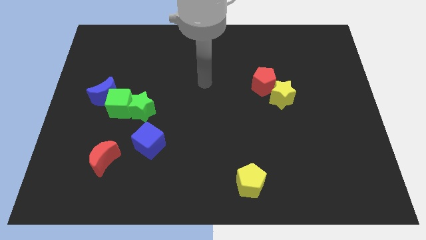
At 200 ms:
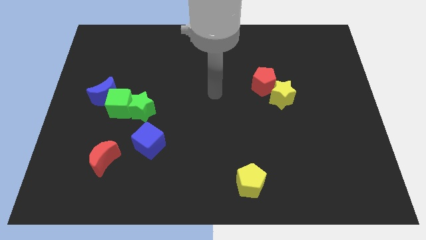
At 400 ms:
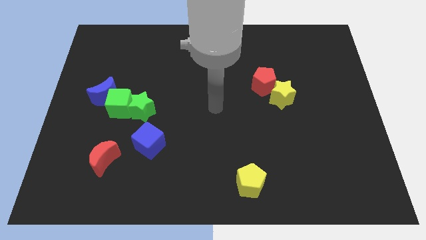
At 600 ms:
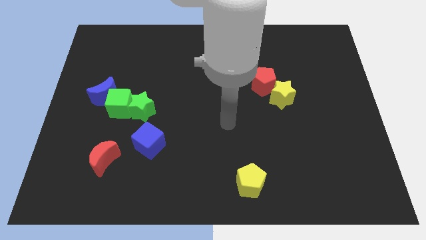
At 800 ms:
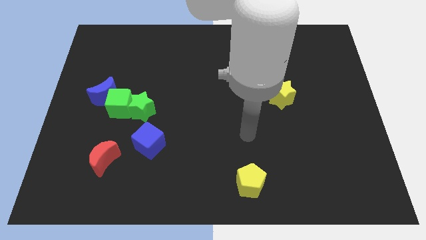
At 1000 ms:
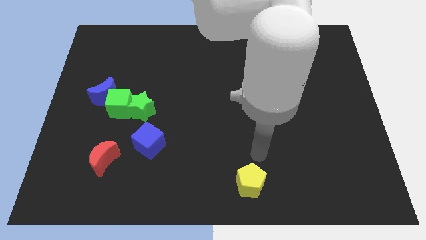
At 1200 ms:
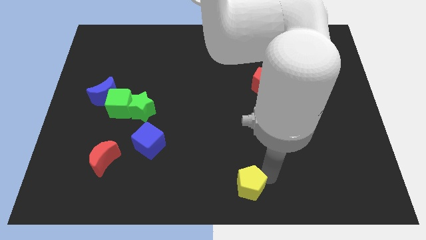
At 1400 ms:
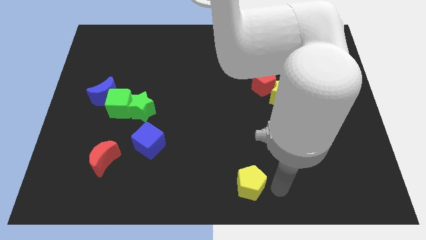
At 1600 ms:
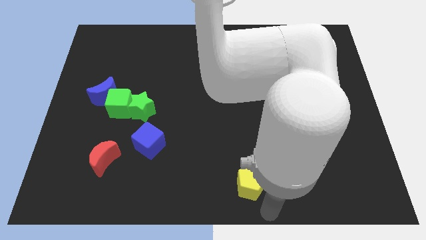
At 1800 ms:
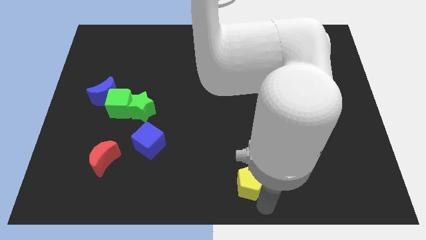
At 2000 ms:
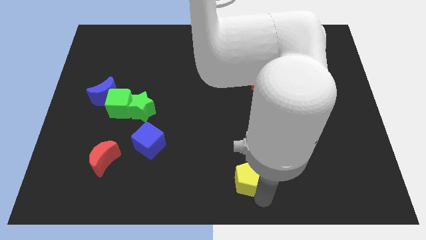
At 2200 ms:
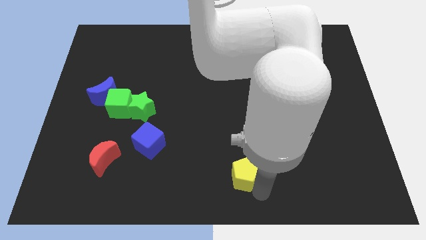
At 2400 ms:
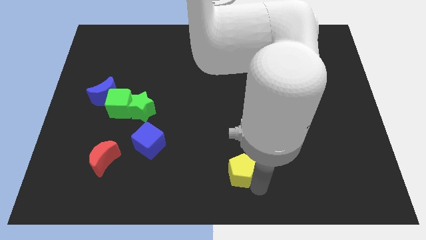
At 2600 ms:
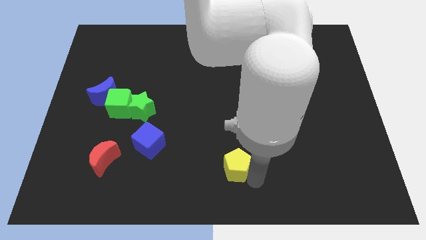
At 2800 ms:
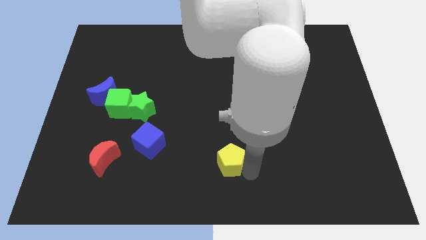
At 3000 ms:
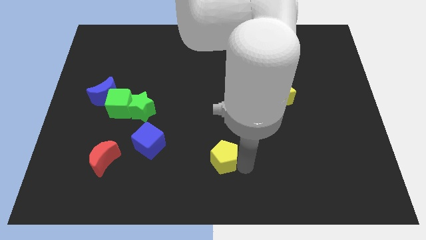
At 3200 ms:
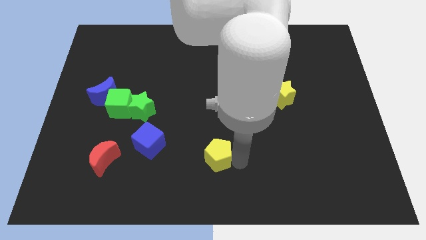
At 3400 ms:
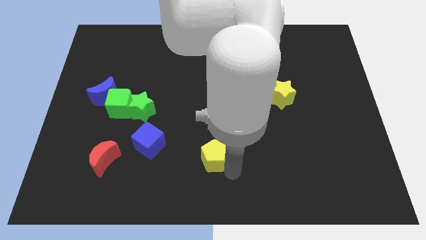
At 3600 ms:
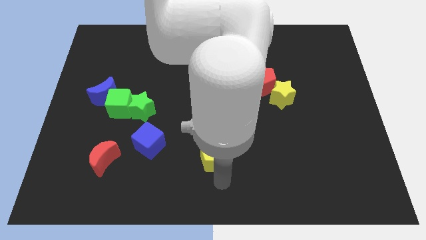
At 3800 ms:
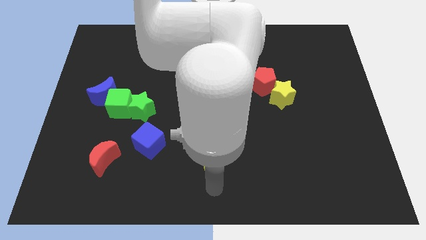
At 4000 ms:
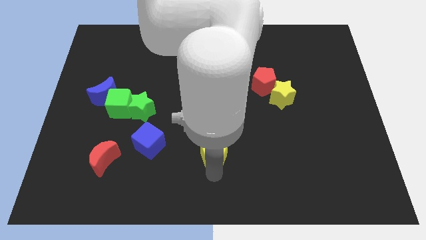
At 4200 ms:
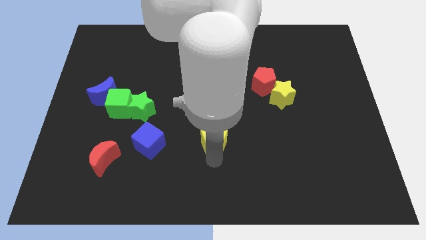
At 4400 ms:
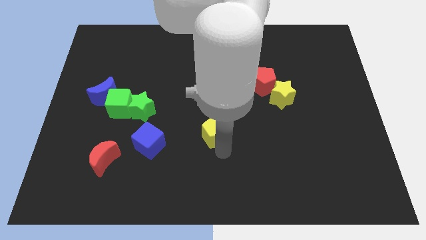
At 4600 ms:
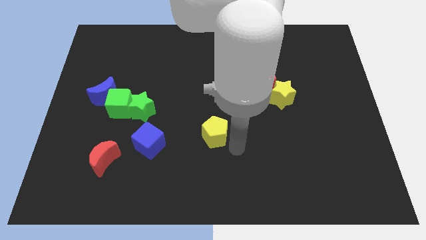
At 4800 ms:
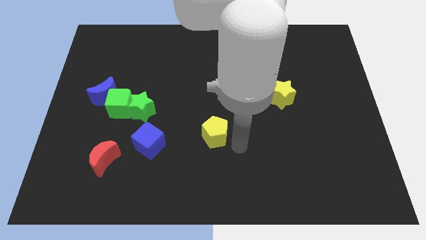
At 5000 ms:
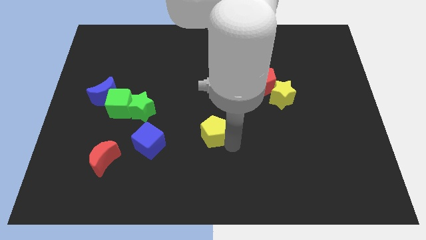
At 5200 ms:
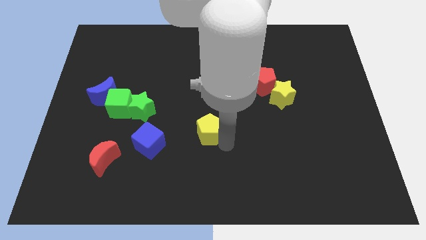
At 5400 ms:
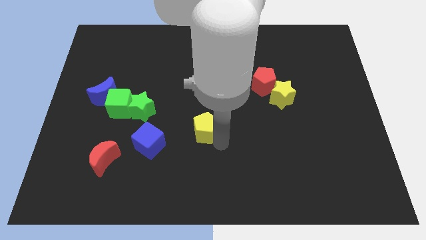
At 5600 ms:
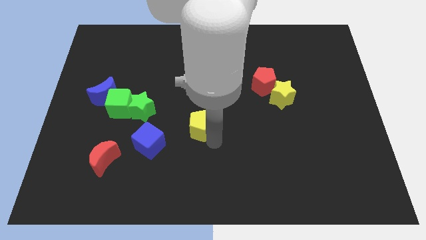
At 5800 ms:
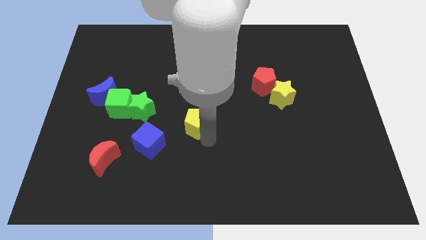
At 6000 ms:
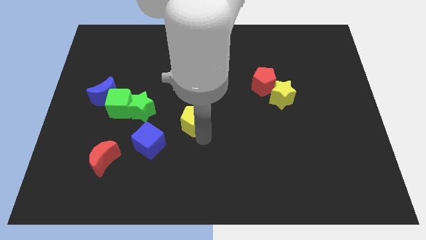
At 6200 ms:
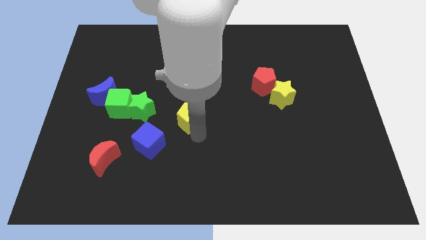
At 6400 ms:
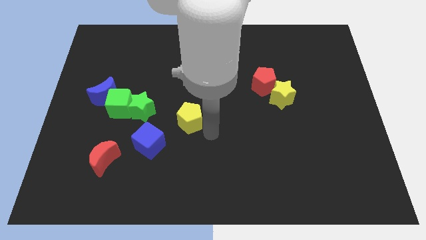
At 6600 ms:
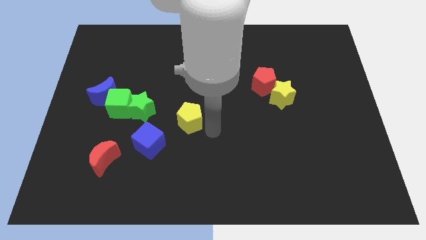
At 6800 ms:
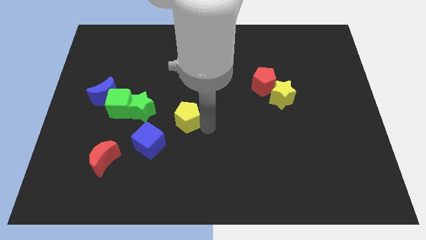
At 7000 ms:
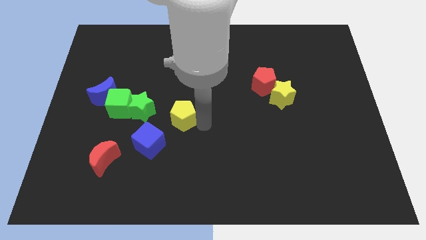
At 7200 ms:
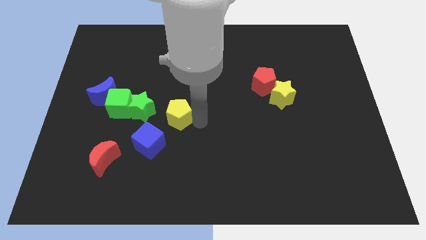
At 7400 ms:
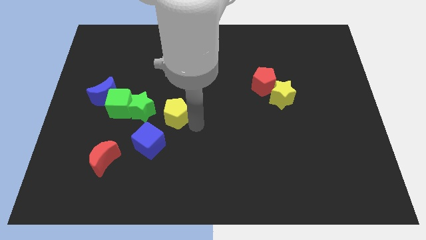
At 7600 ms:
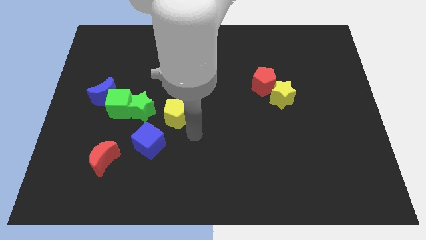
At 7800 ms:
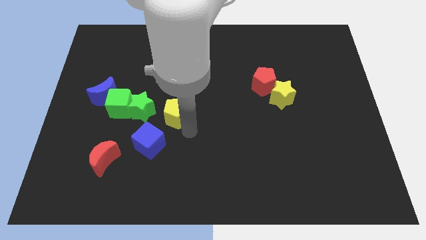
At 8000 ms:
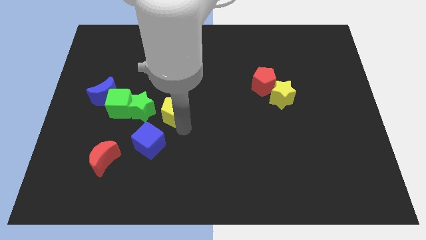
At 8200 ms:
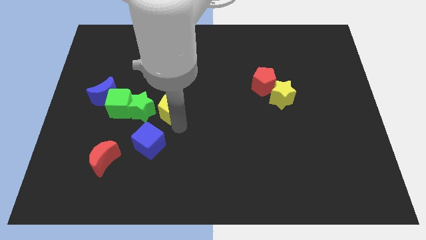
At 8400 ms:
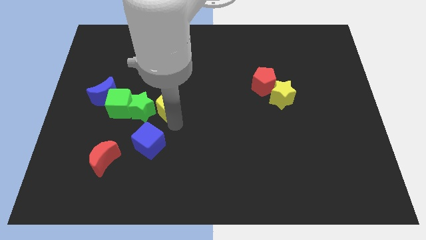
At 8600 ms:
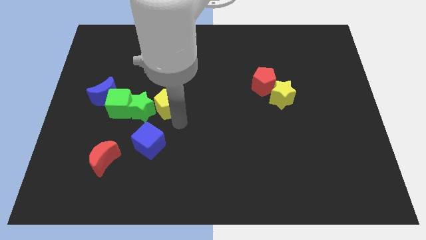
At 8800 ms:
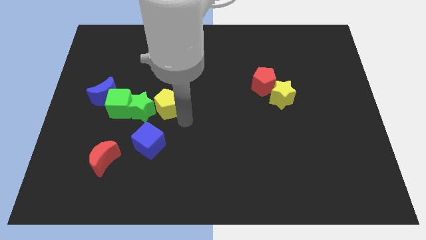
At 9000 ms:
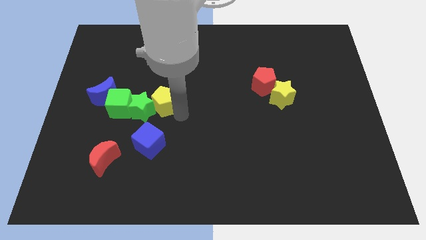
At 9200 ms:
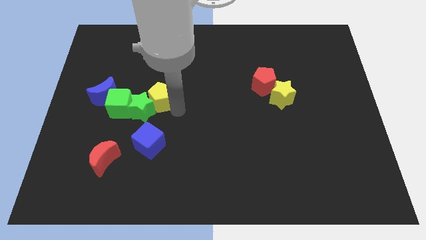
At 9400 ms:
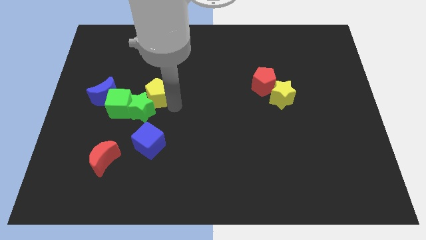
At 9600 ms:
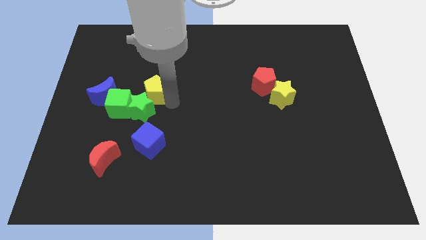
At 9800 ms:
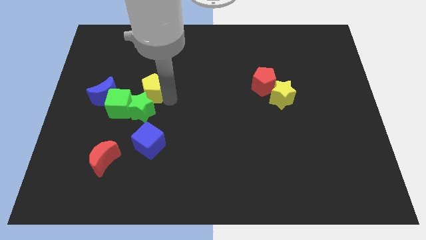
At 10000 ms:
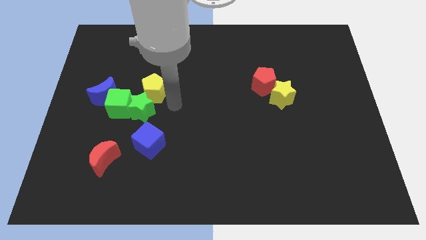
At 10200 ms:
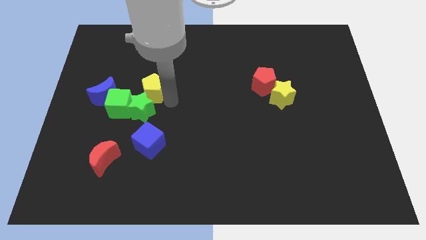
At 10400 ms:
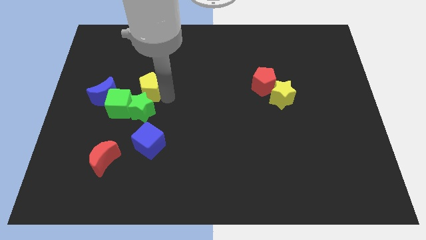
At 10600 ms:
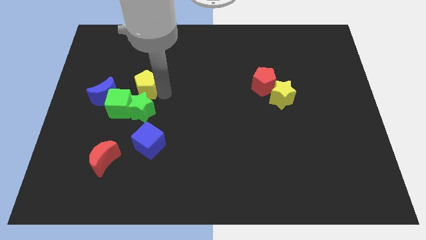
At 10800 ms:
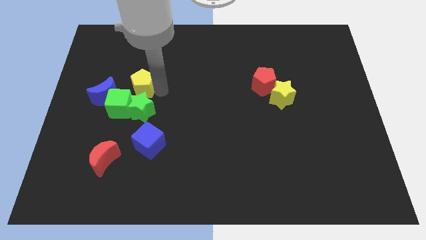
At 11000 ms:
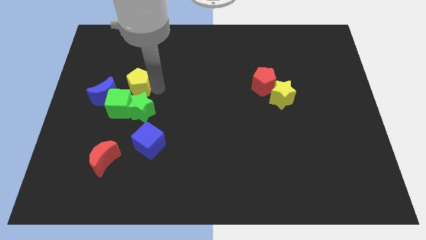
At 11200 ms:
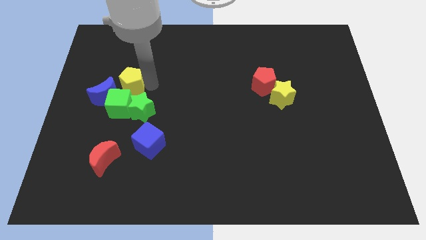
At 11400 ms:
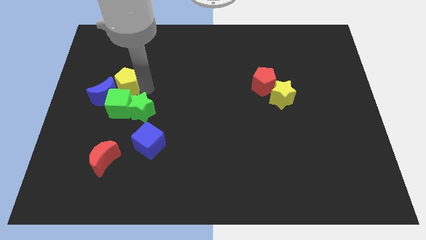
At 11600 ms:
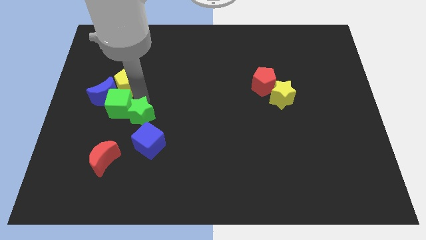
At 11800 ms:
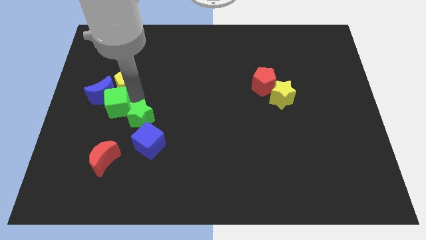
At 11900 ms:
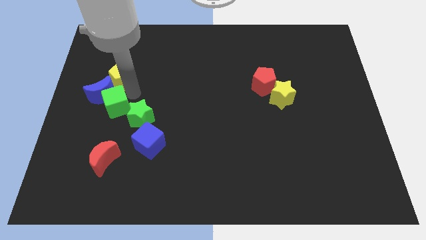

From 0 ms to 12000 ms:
slide the yellow pentagon to the top side of the blue moon

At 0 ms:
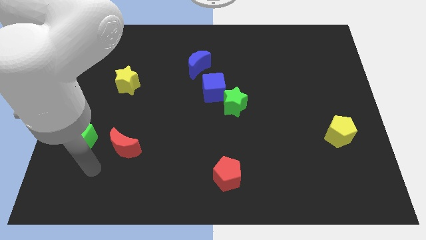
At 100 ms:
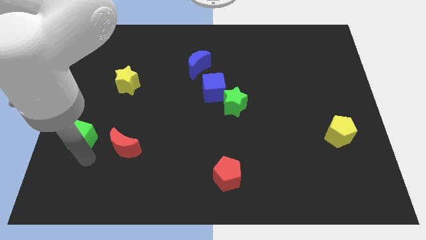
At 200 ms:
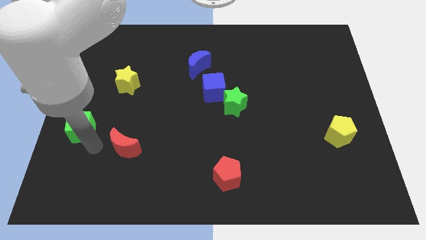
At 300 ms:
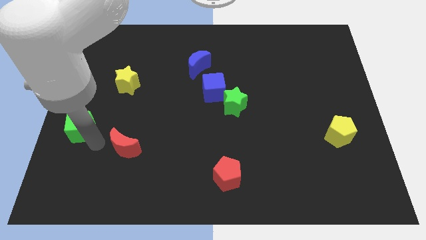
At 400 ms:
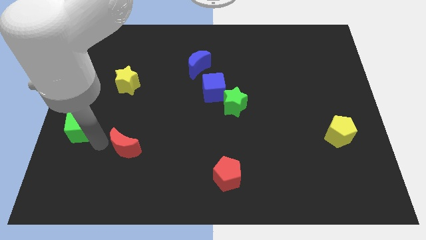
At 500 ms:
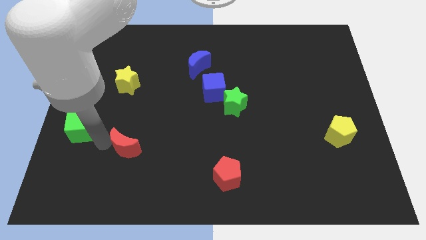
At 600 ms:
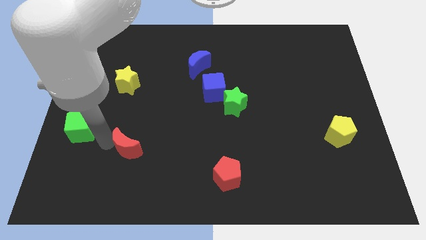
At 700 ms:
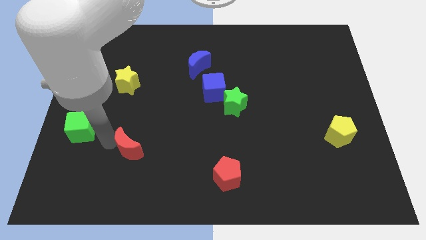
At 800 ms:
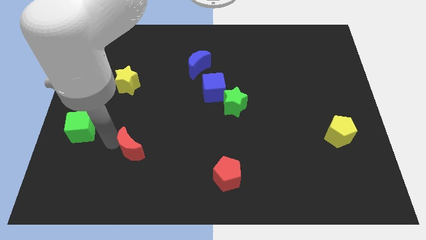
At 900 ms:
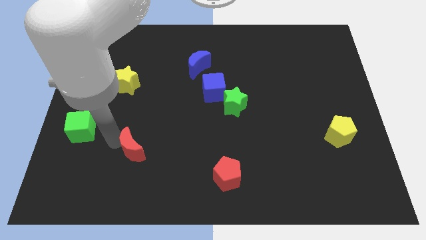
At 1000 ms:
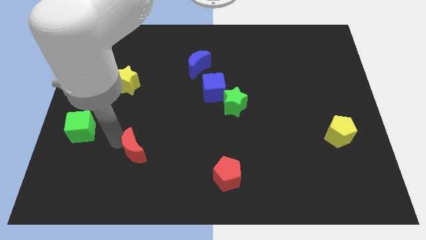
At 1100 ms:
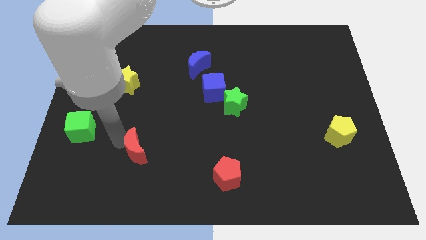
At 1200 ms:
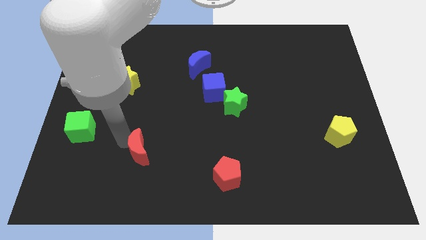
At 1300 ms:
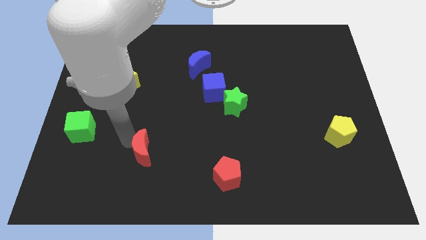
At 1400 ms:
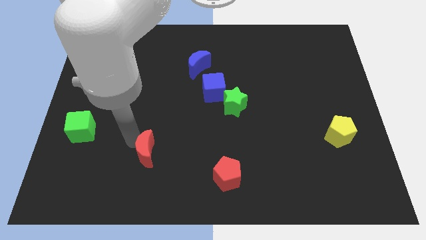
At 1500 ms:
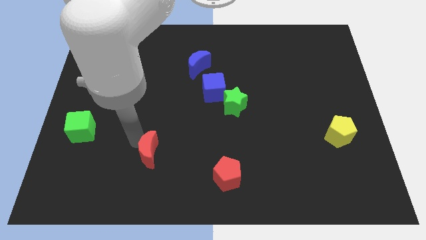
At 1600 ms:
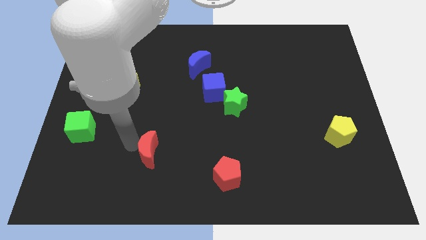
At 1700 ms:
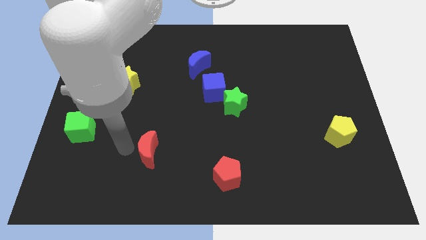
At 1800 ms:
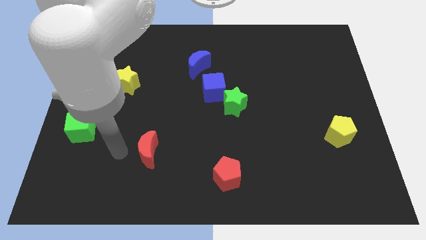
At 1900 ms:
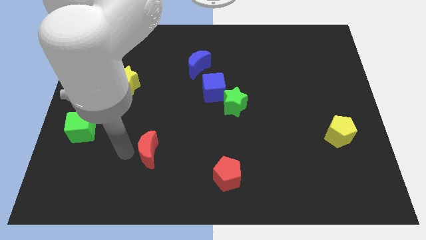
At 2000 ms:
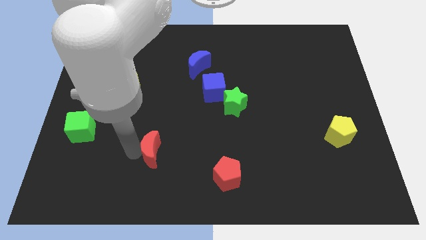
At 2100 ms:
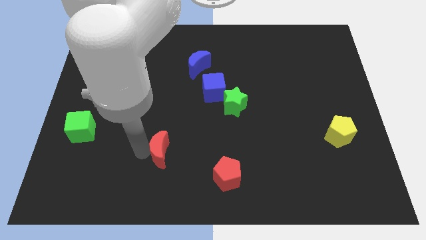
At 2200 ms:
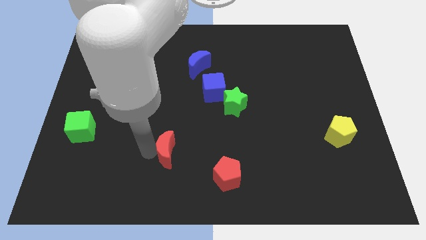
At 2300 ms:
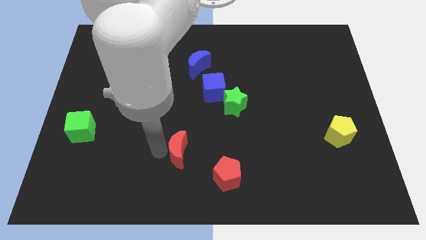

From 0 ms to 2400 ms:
put the red moon to the top left of the red pentagon
